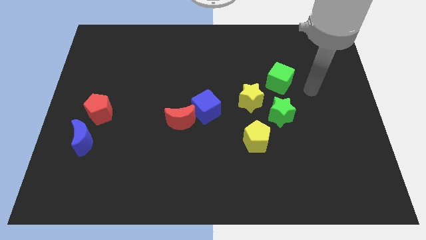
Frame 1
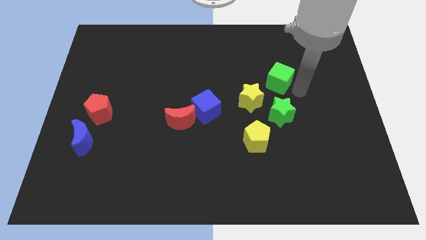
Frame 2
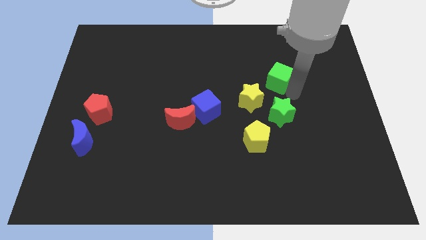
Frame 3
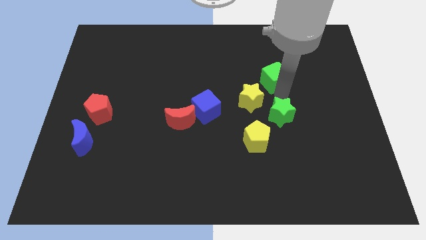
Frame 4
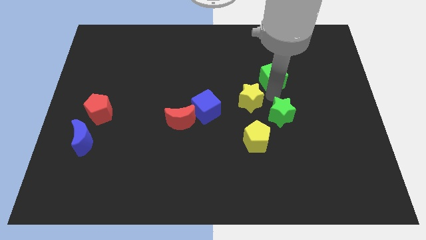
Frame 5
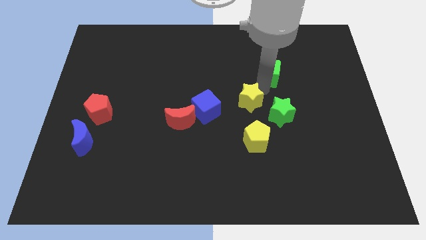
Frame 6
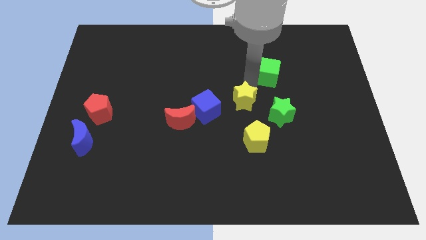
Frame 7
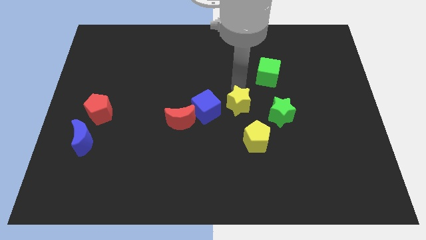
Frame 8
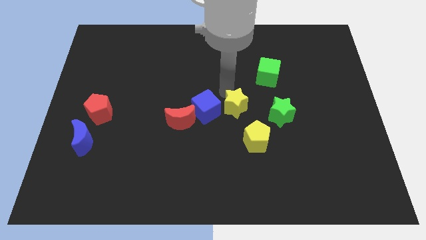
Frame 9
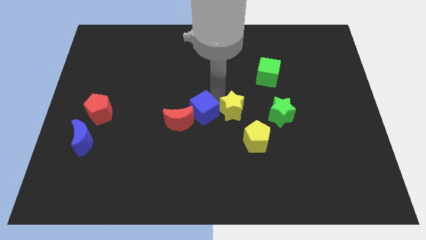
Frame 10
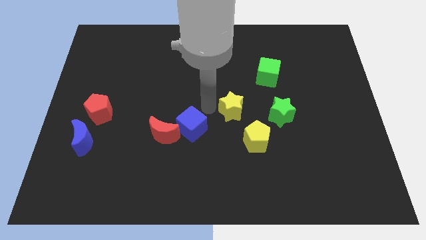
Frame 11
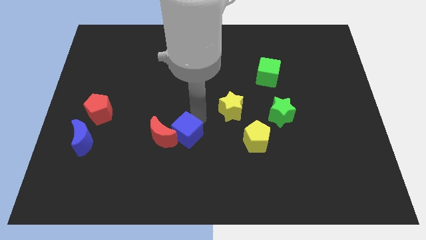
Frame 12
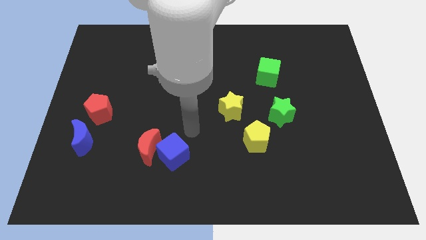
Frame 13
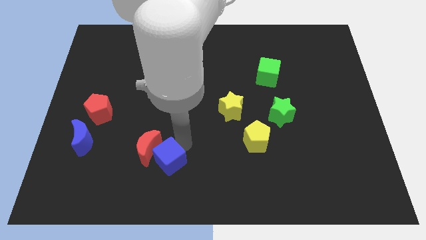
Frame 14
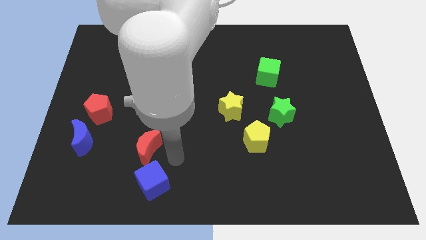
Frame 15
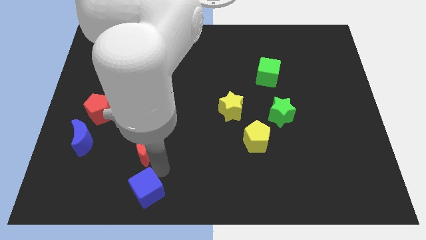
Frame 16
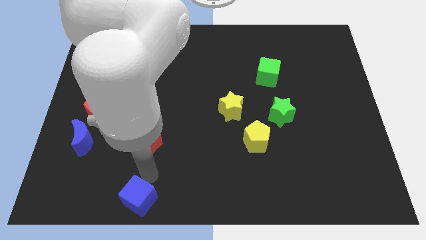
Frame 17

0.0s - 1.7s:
move the red moon away from the blue cube

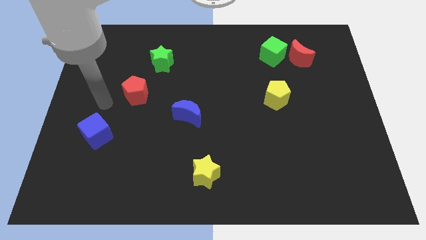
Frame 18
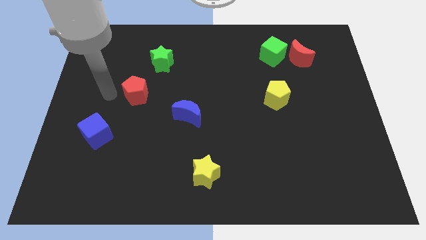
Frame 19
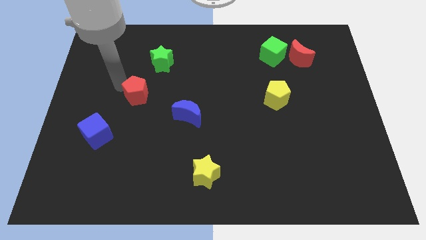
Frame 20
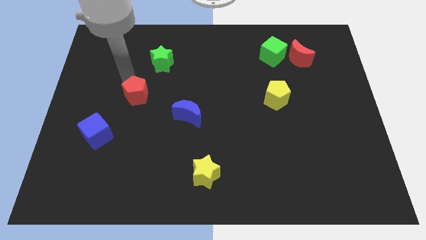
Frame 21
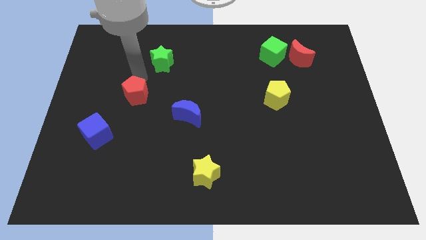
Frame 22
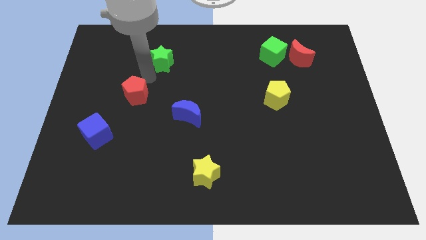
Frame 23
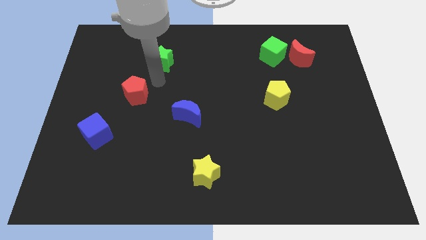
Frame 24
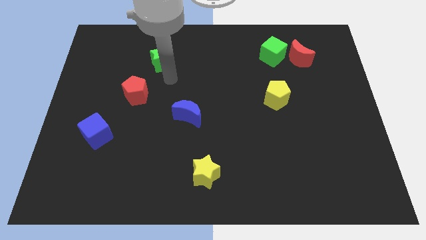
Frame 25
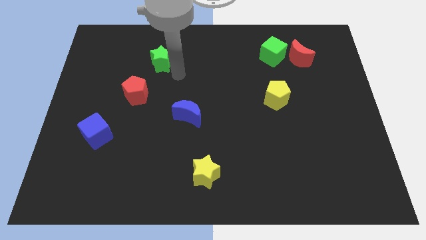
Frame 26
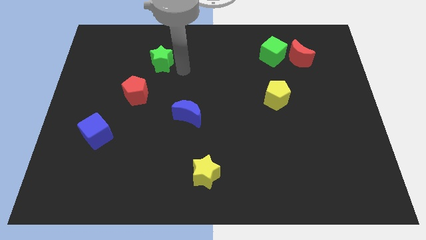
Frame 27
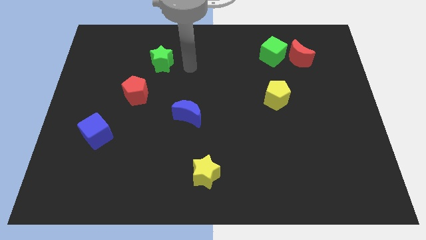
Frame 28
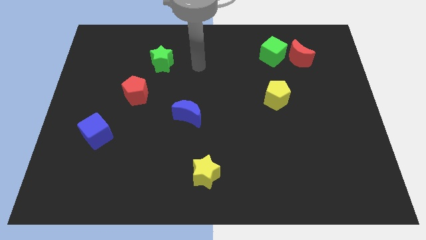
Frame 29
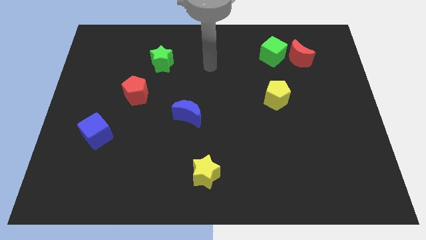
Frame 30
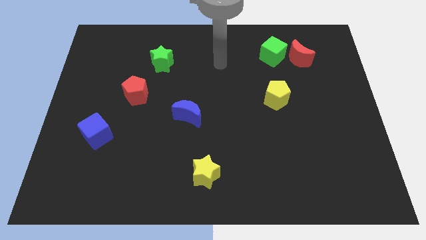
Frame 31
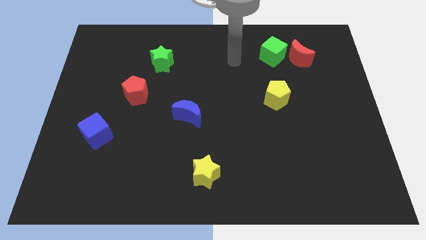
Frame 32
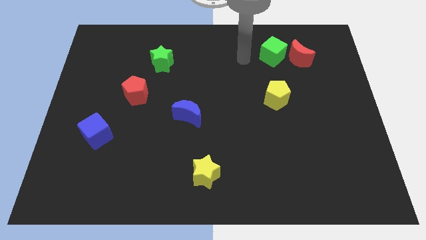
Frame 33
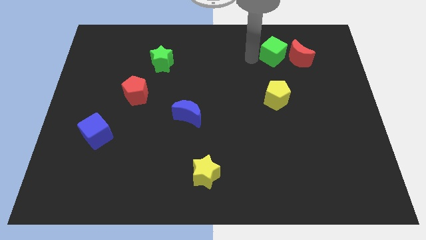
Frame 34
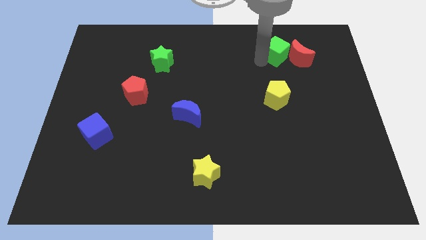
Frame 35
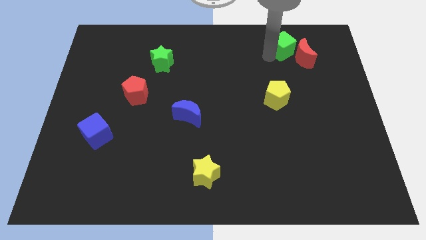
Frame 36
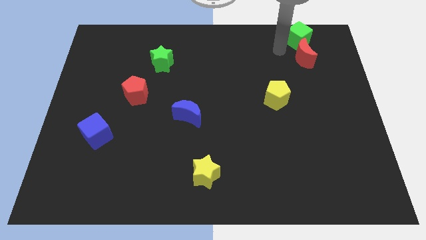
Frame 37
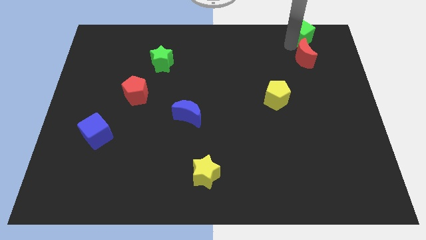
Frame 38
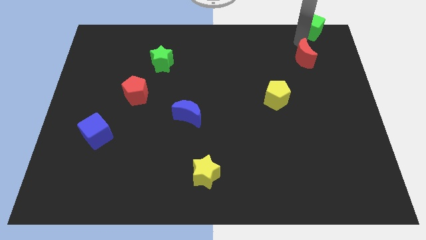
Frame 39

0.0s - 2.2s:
pull the red moon apart from the green cube

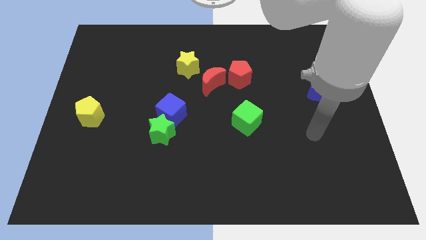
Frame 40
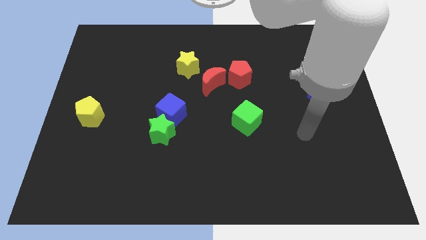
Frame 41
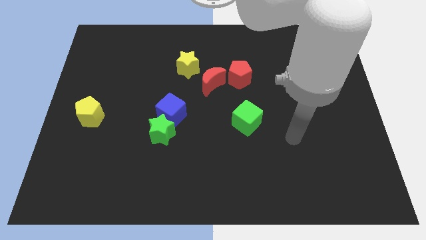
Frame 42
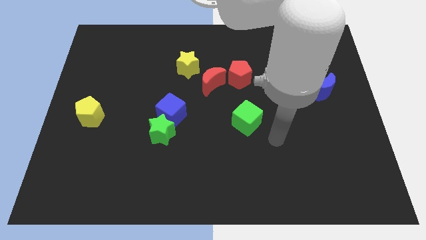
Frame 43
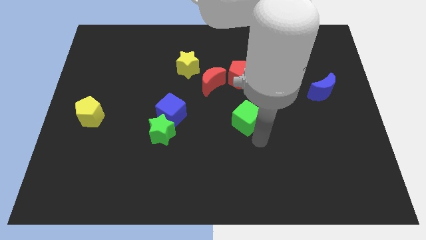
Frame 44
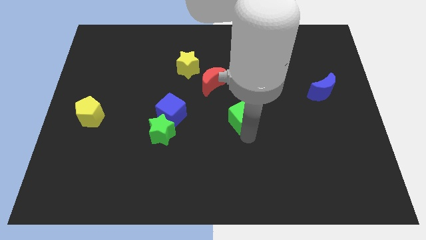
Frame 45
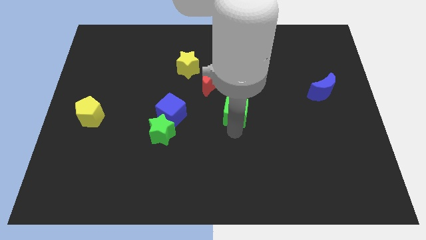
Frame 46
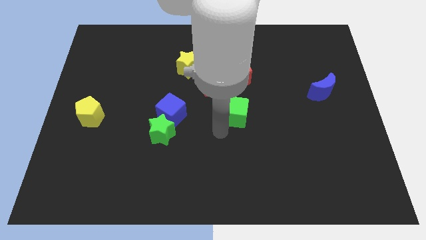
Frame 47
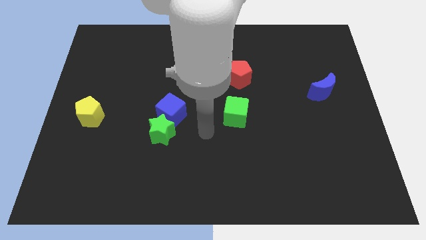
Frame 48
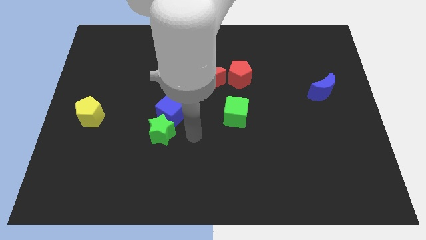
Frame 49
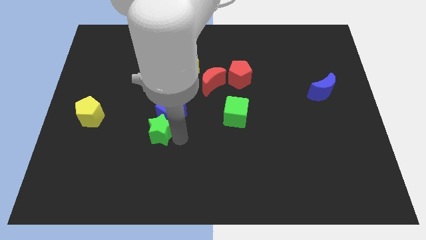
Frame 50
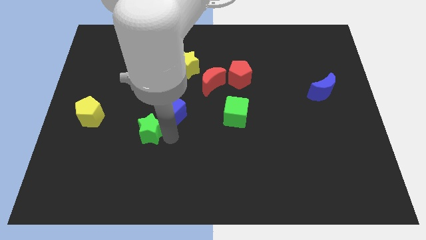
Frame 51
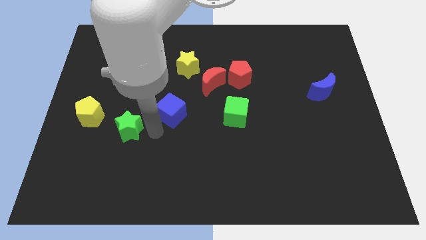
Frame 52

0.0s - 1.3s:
pull the blue cube apart from the green star

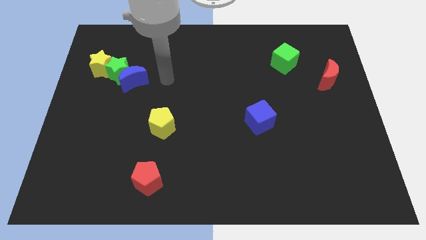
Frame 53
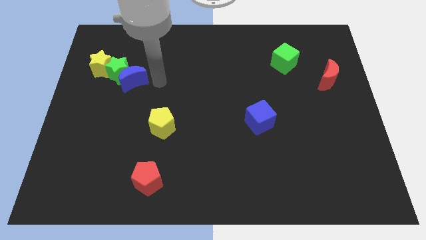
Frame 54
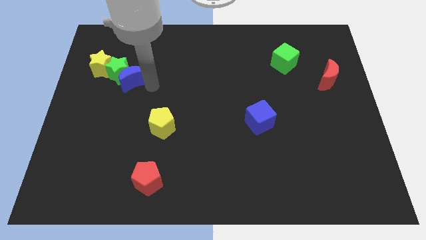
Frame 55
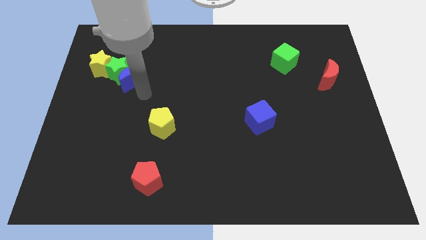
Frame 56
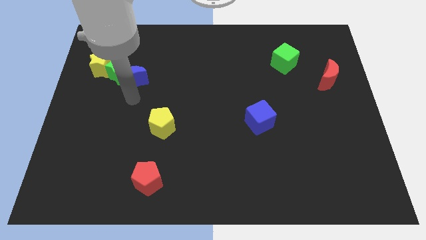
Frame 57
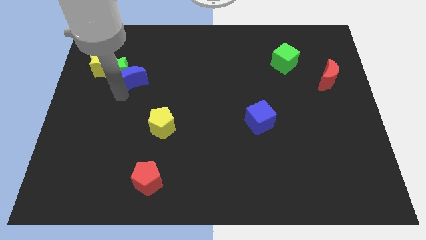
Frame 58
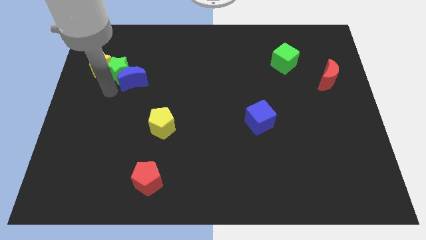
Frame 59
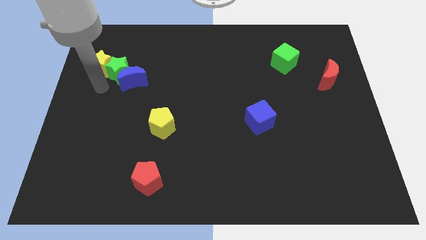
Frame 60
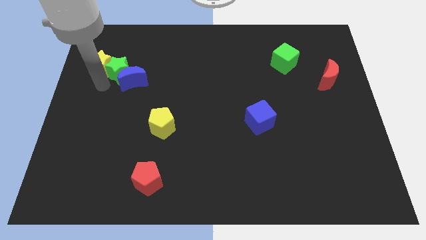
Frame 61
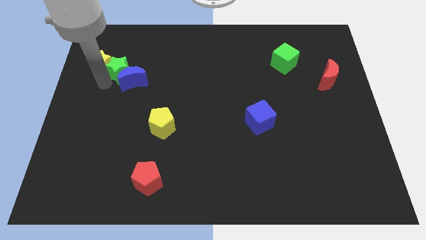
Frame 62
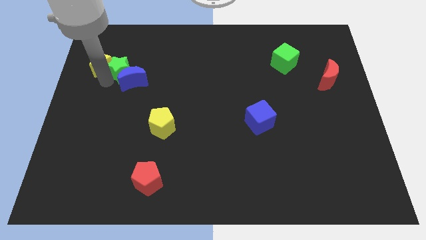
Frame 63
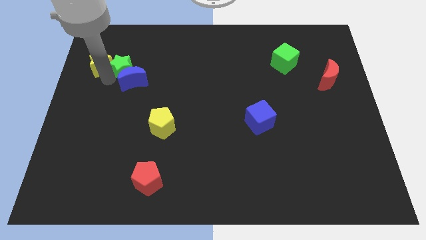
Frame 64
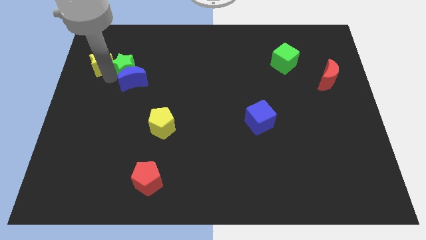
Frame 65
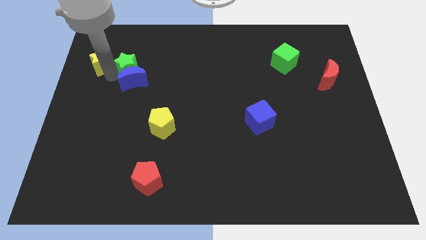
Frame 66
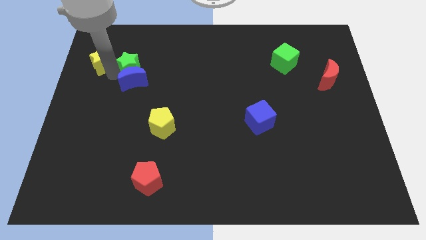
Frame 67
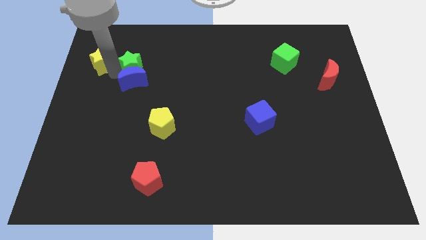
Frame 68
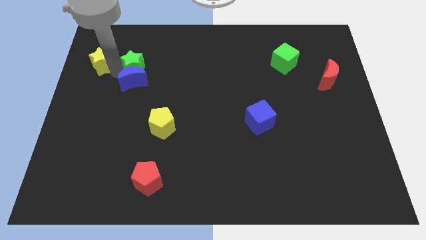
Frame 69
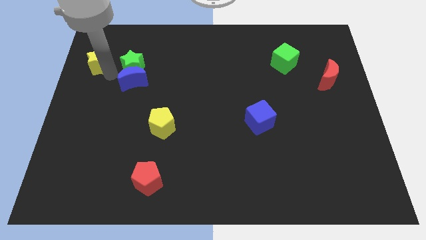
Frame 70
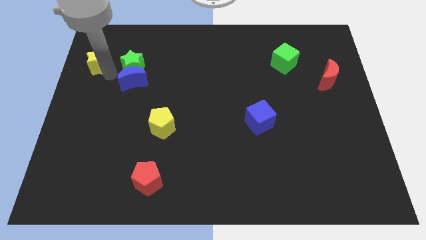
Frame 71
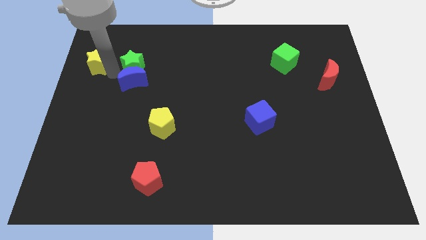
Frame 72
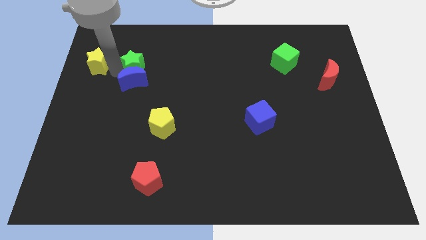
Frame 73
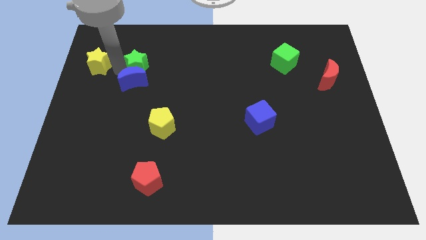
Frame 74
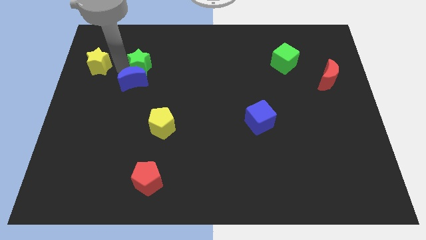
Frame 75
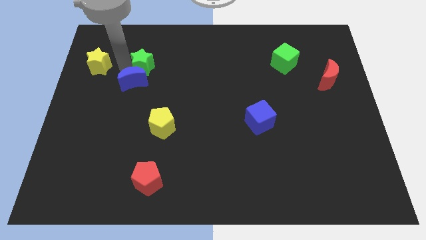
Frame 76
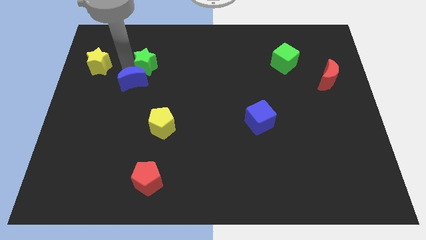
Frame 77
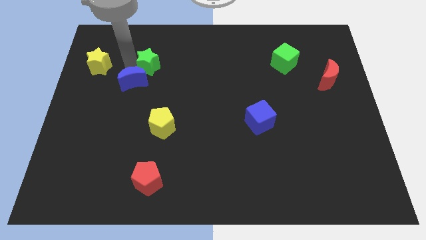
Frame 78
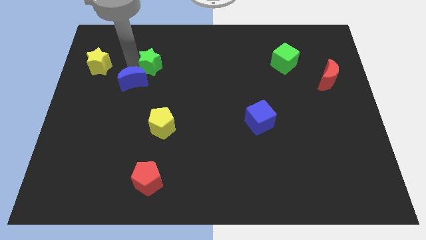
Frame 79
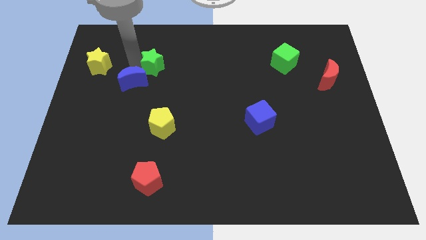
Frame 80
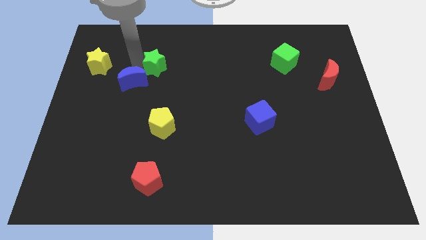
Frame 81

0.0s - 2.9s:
move the green star away from the blue moon and yellow star

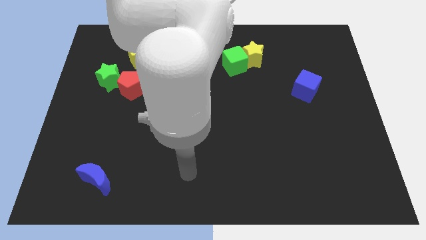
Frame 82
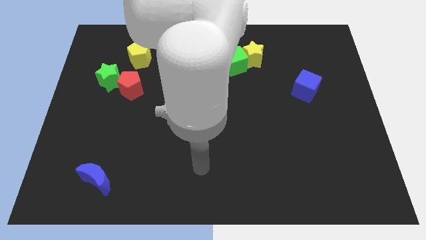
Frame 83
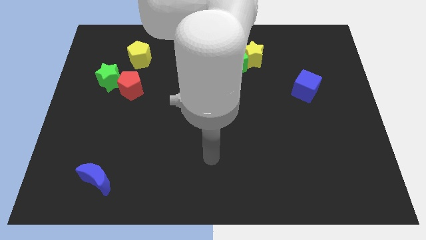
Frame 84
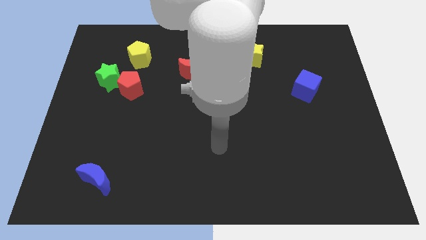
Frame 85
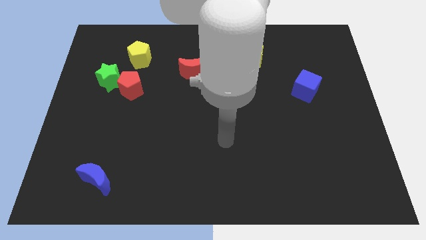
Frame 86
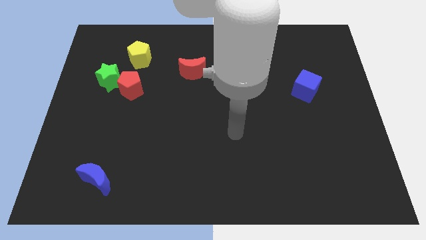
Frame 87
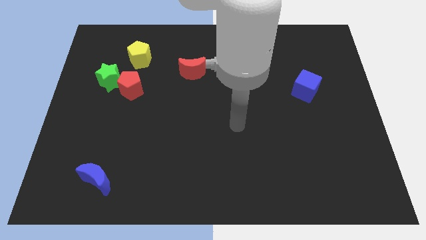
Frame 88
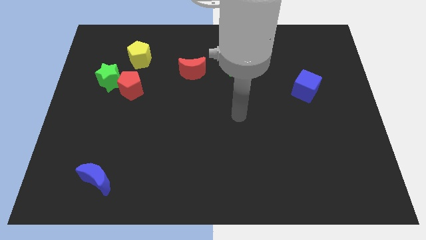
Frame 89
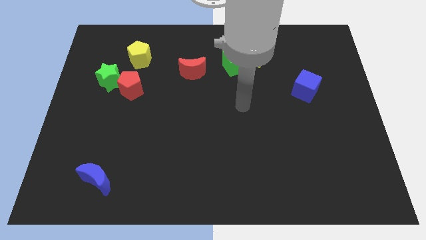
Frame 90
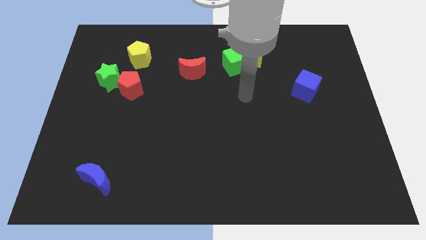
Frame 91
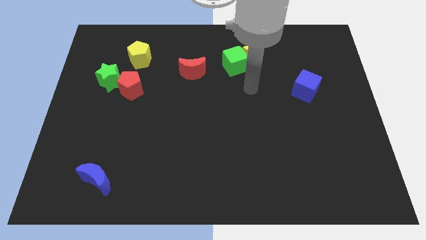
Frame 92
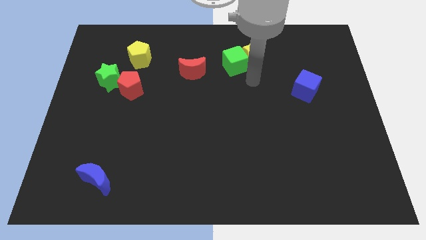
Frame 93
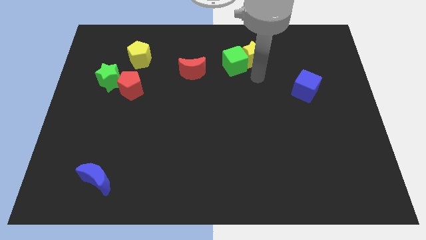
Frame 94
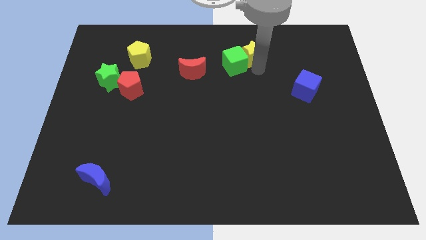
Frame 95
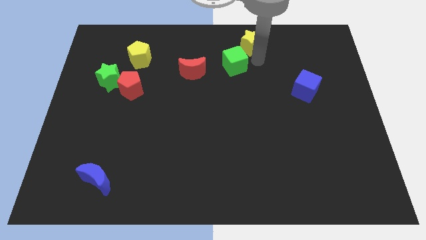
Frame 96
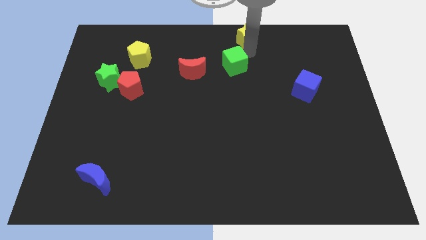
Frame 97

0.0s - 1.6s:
separate the green cube from the yellow star
